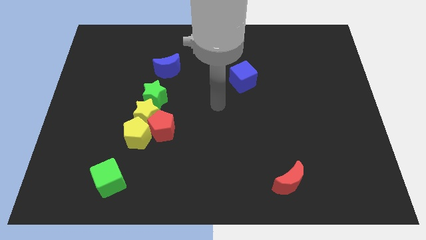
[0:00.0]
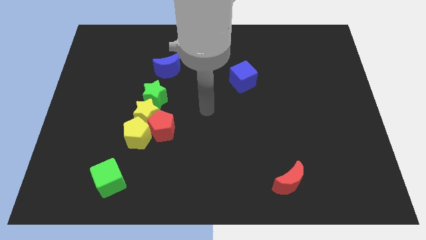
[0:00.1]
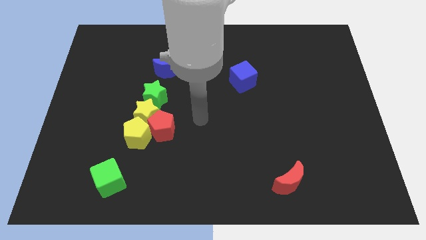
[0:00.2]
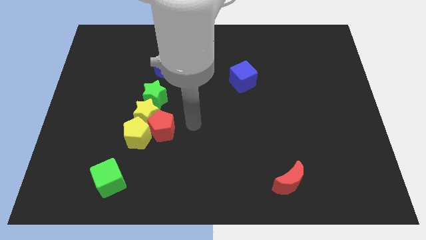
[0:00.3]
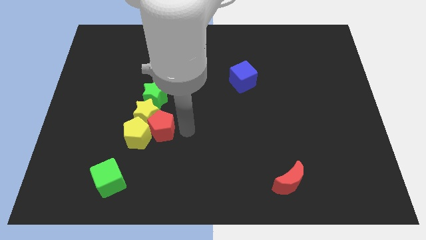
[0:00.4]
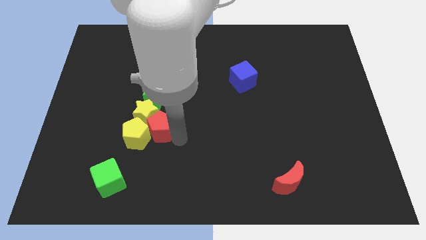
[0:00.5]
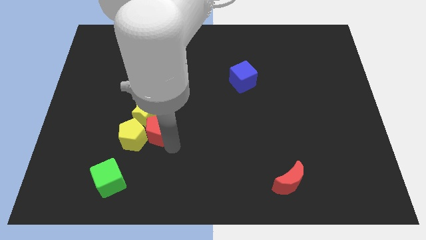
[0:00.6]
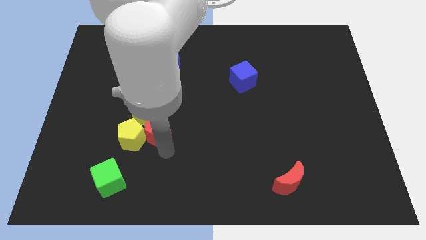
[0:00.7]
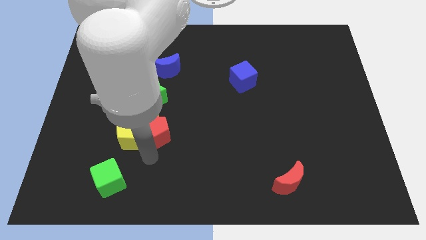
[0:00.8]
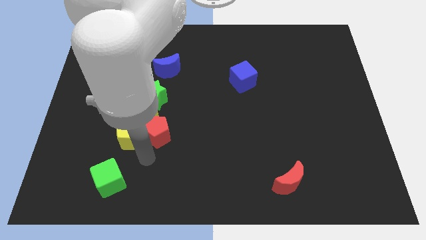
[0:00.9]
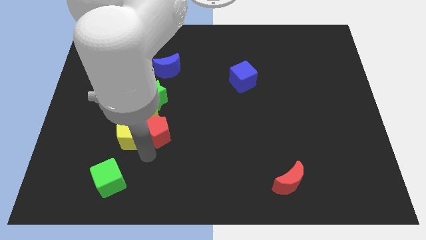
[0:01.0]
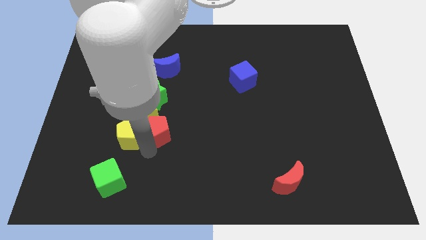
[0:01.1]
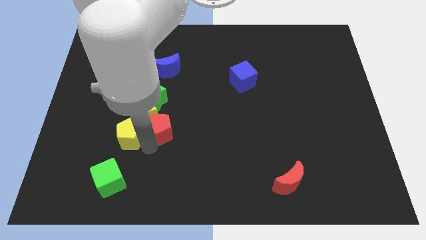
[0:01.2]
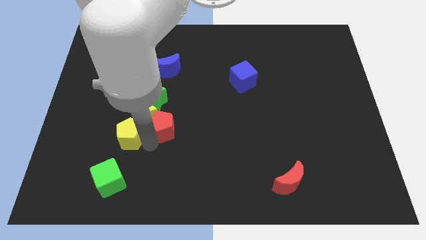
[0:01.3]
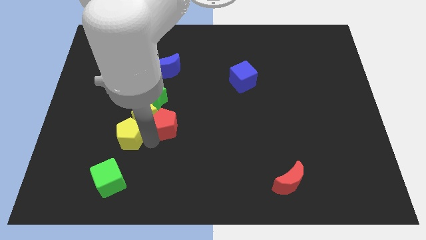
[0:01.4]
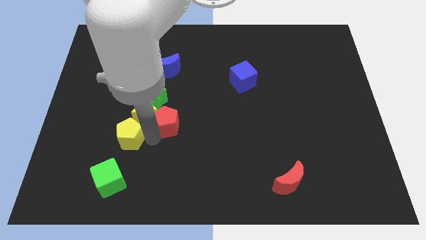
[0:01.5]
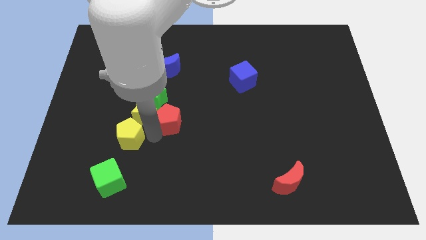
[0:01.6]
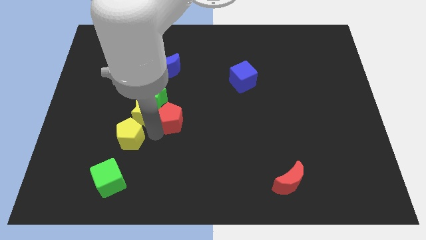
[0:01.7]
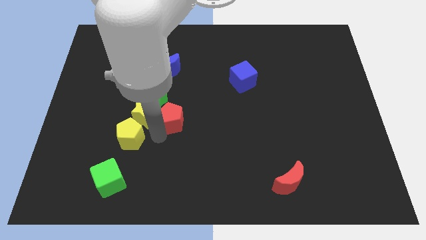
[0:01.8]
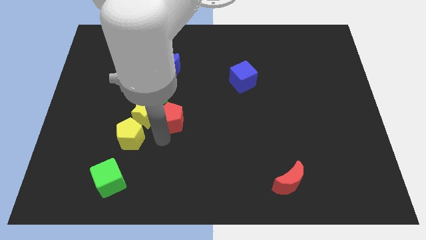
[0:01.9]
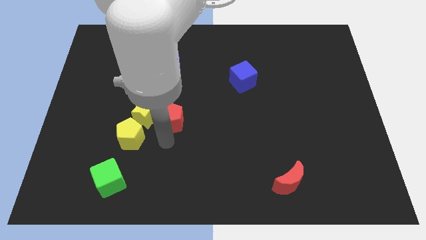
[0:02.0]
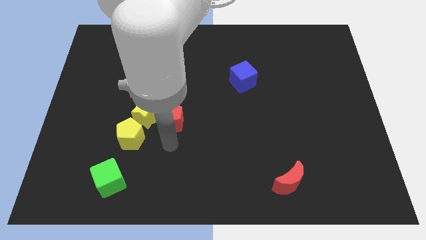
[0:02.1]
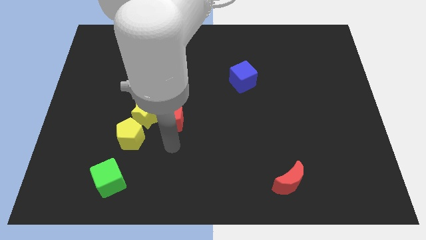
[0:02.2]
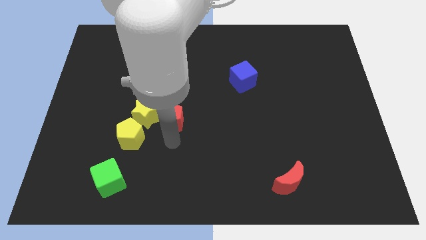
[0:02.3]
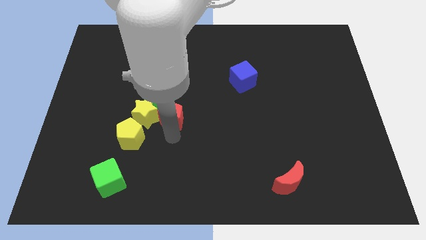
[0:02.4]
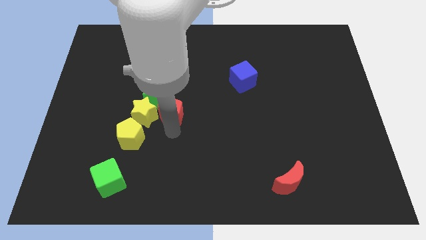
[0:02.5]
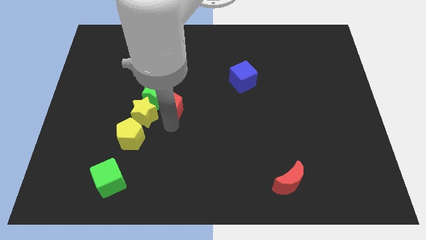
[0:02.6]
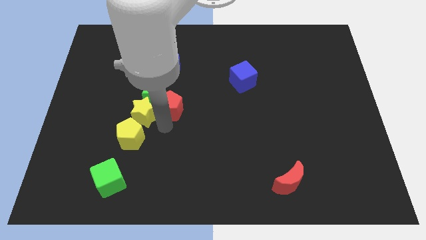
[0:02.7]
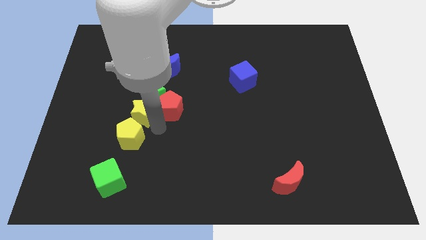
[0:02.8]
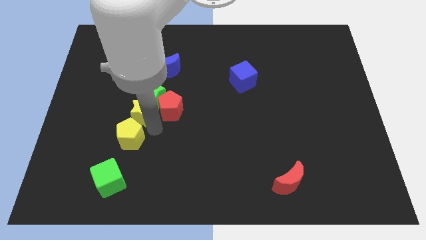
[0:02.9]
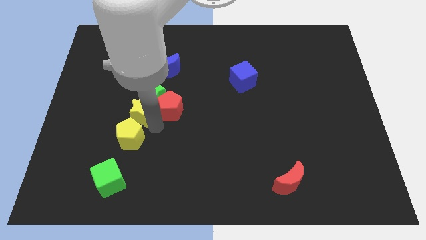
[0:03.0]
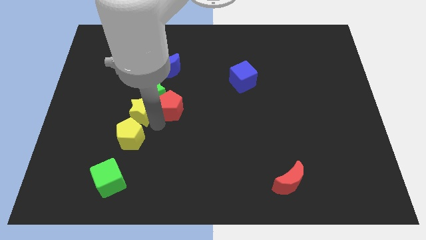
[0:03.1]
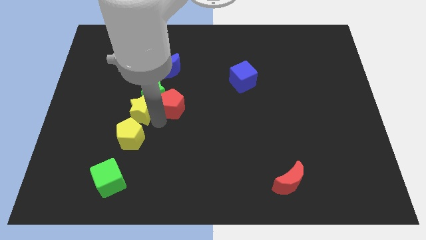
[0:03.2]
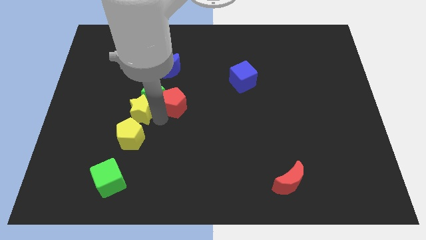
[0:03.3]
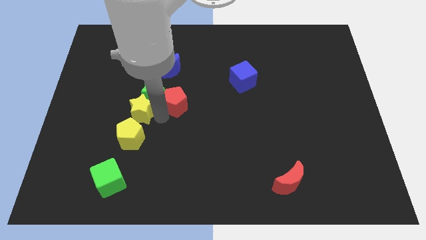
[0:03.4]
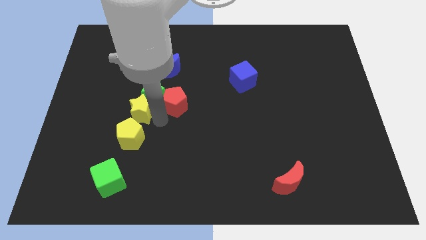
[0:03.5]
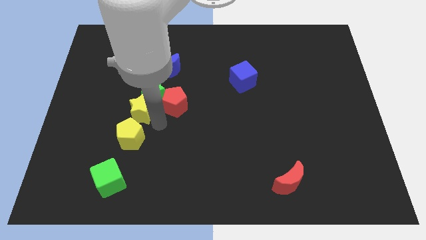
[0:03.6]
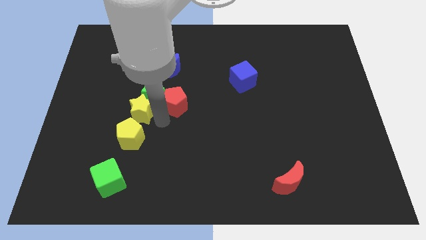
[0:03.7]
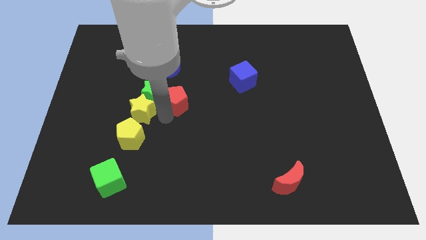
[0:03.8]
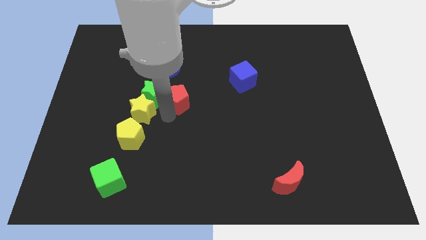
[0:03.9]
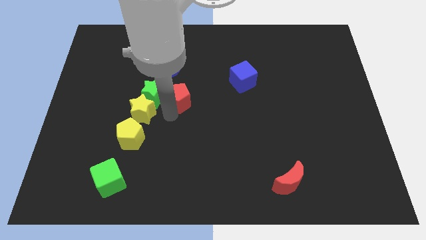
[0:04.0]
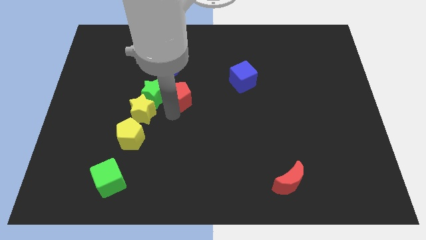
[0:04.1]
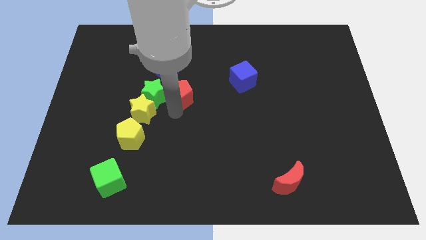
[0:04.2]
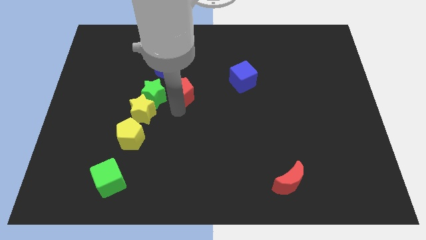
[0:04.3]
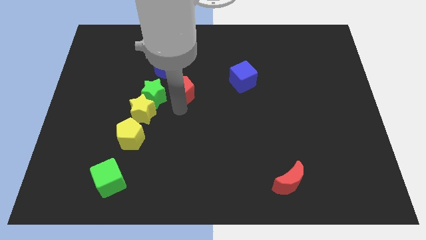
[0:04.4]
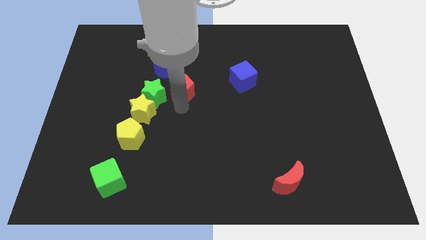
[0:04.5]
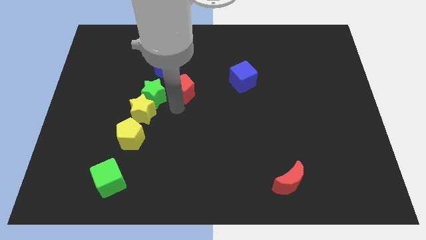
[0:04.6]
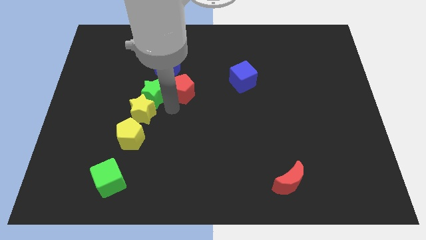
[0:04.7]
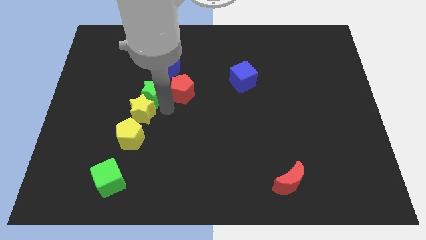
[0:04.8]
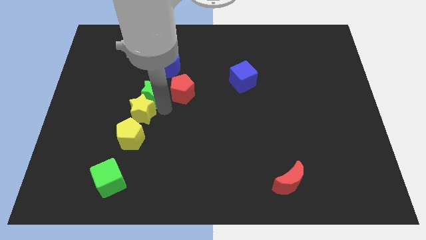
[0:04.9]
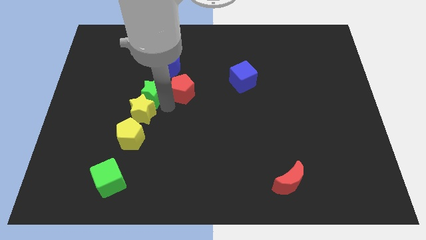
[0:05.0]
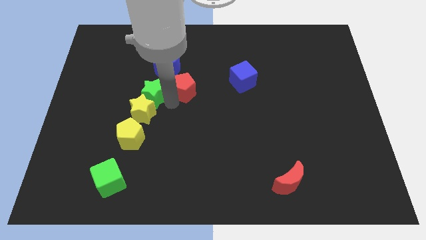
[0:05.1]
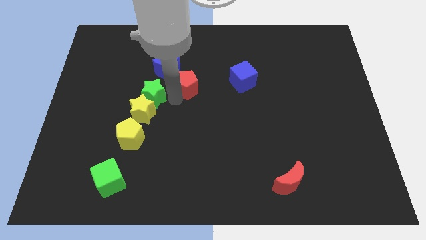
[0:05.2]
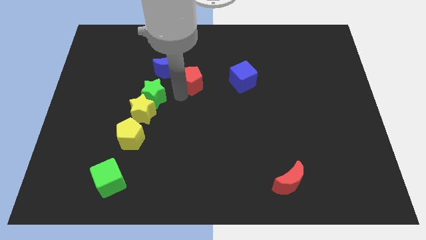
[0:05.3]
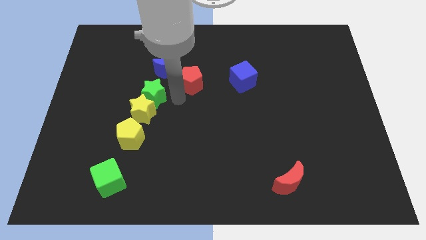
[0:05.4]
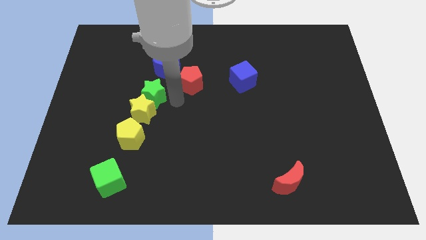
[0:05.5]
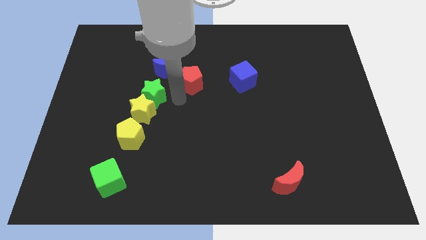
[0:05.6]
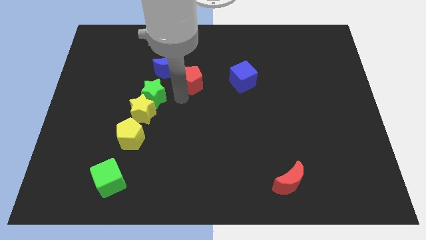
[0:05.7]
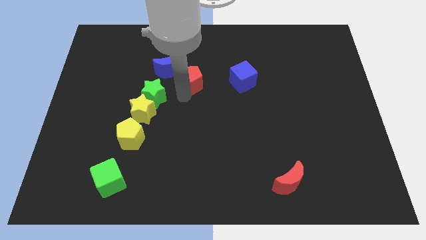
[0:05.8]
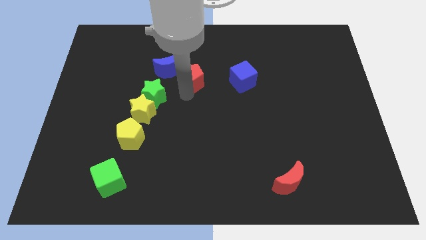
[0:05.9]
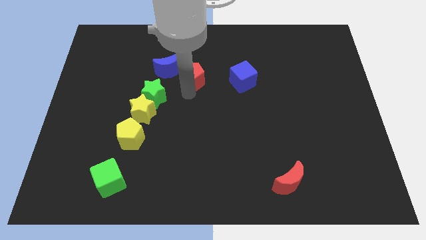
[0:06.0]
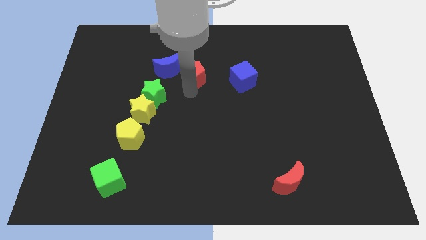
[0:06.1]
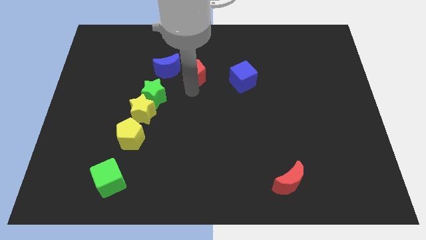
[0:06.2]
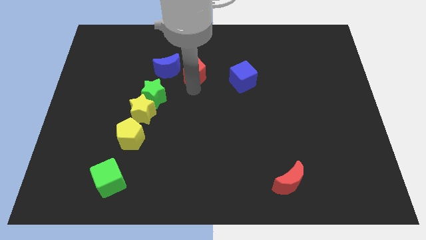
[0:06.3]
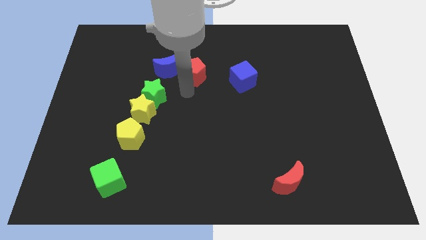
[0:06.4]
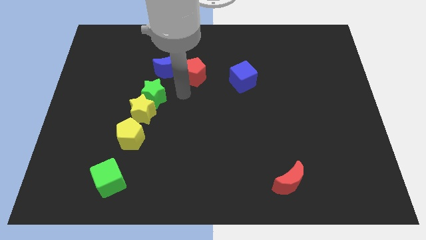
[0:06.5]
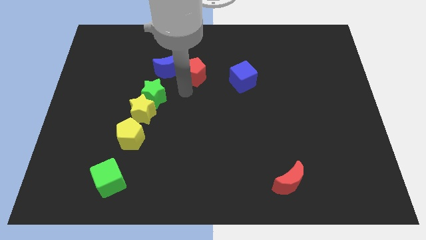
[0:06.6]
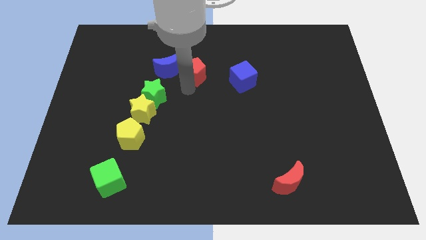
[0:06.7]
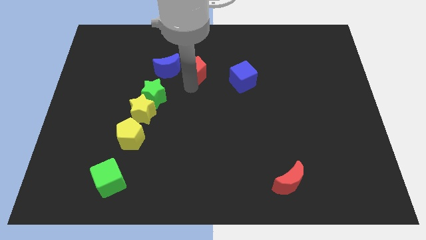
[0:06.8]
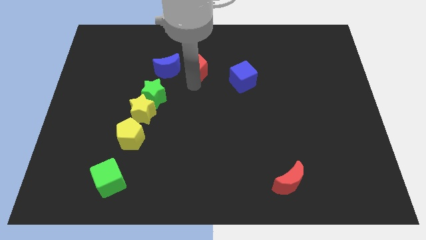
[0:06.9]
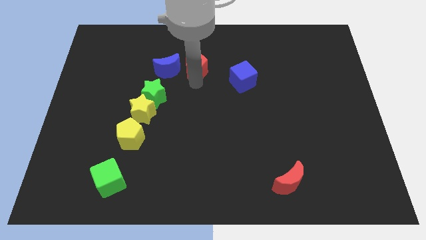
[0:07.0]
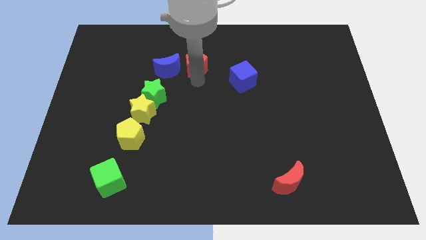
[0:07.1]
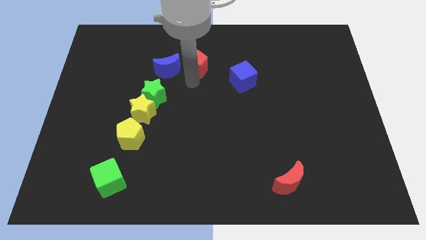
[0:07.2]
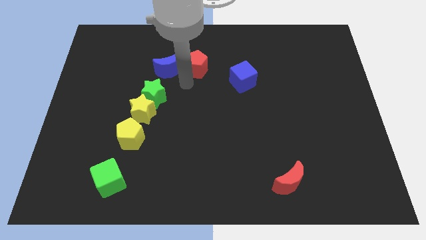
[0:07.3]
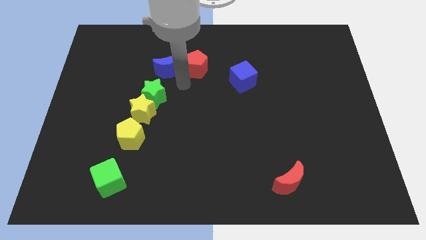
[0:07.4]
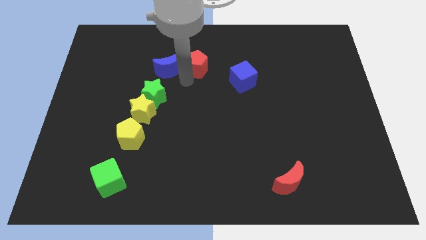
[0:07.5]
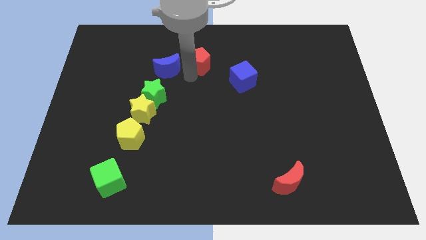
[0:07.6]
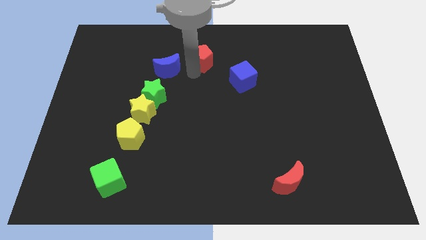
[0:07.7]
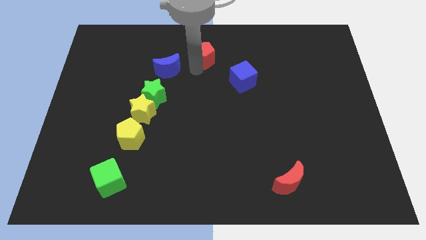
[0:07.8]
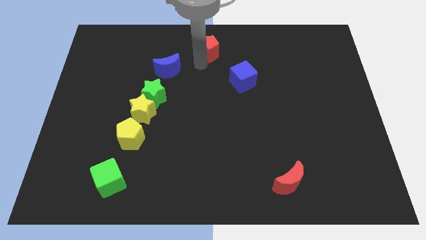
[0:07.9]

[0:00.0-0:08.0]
put the red pentagon to the top side
